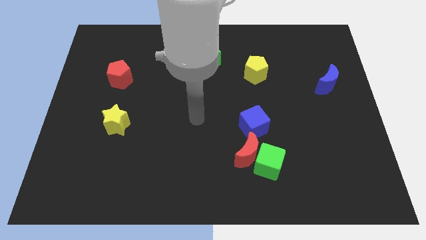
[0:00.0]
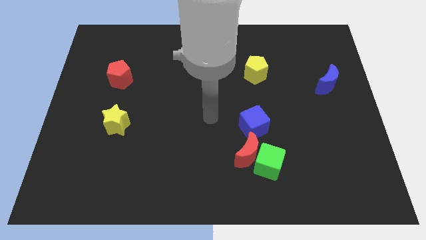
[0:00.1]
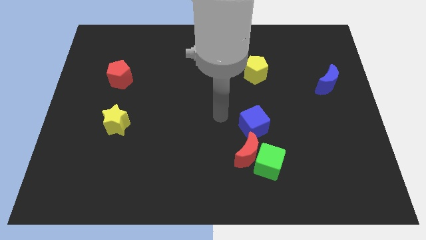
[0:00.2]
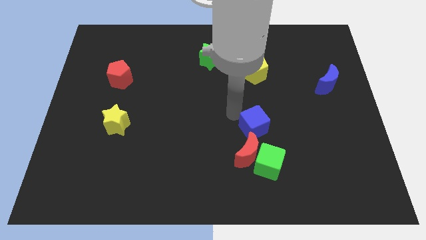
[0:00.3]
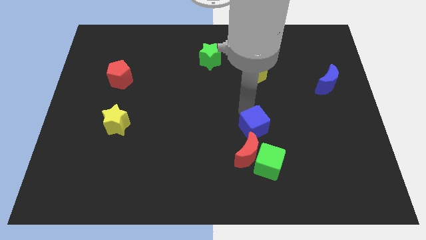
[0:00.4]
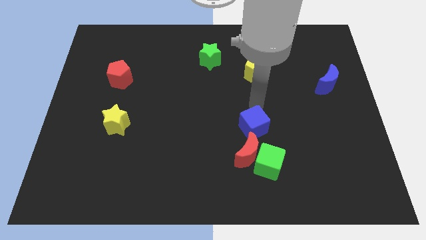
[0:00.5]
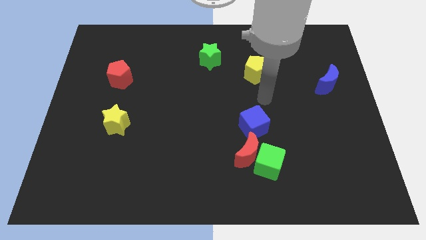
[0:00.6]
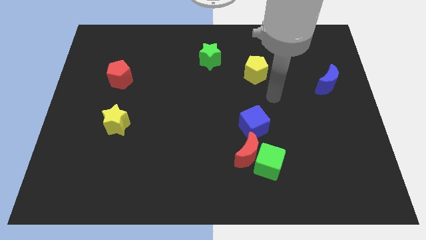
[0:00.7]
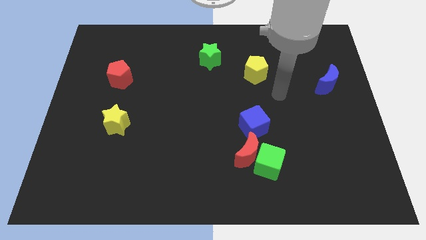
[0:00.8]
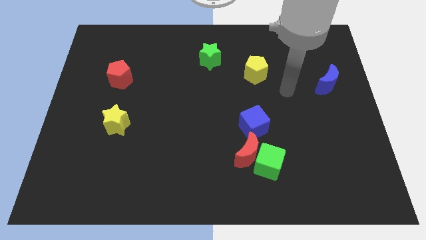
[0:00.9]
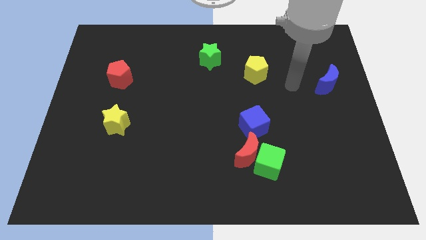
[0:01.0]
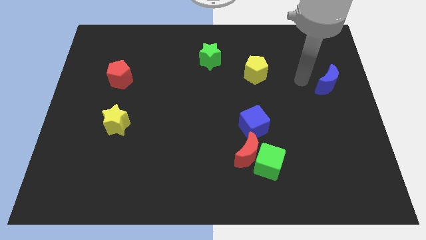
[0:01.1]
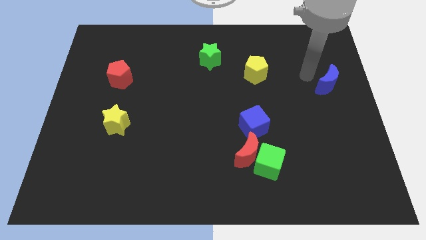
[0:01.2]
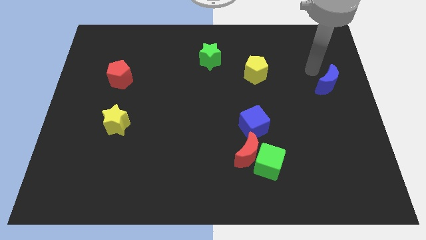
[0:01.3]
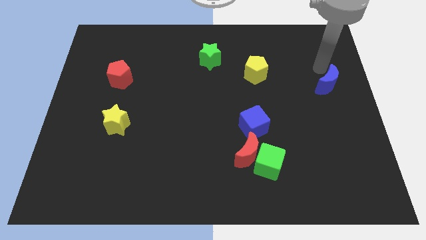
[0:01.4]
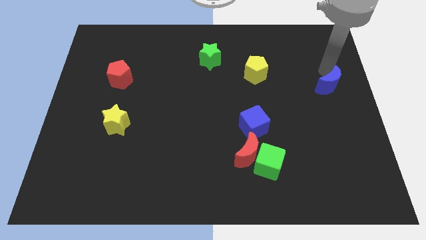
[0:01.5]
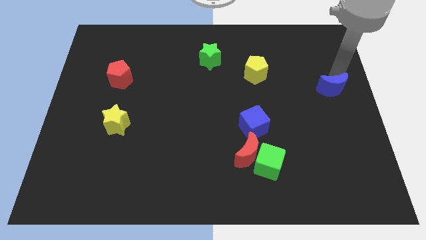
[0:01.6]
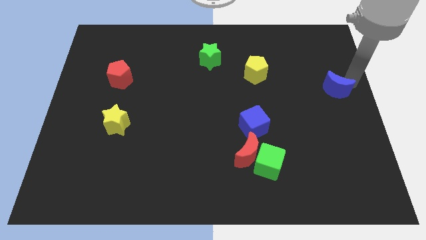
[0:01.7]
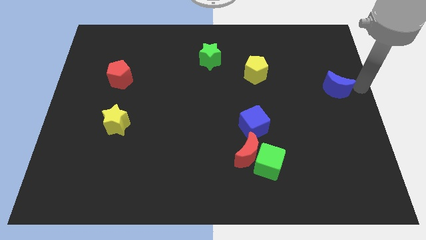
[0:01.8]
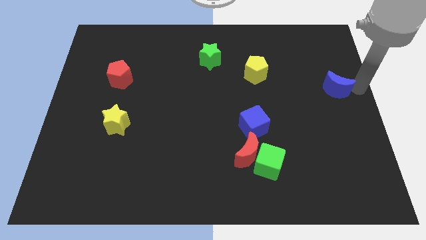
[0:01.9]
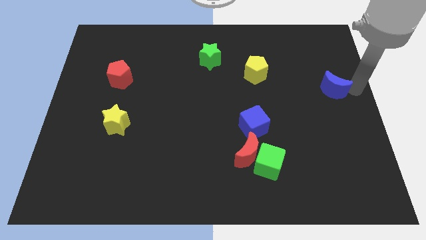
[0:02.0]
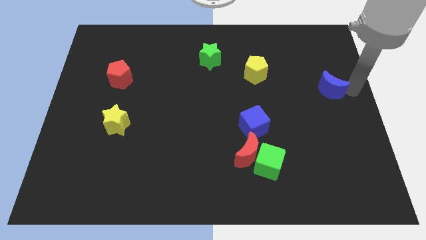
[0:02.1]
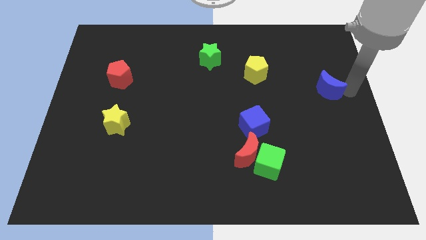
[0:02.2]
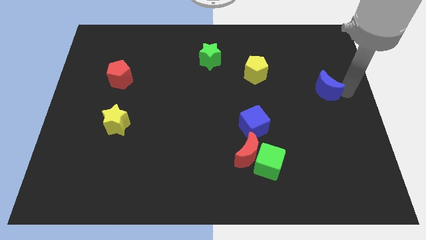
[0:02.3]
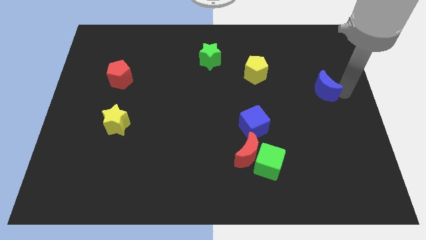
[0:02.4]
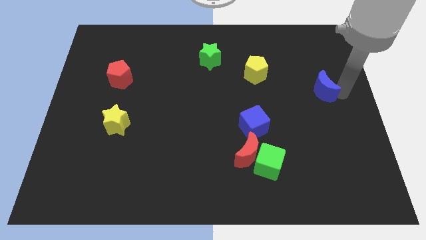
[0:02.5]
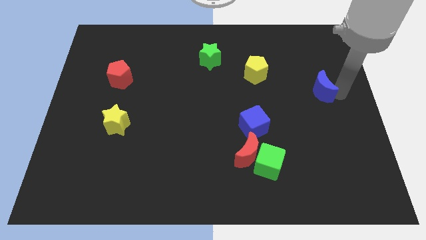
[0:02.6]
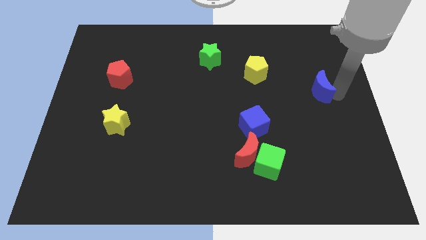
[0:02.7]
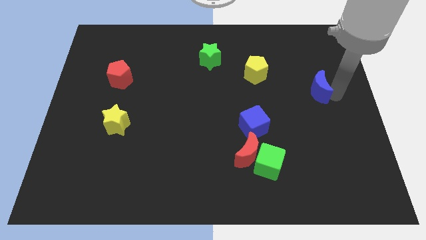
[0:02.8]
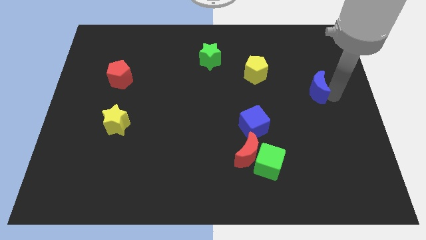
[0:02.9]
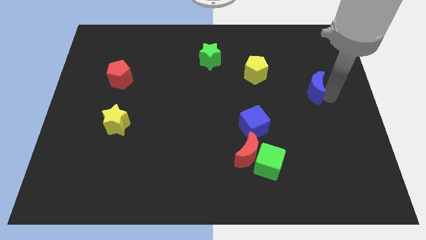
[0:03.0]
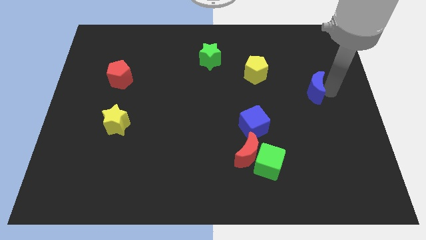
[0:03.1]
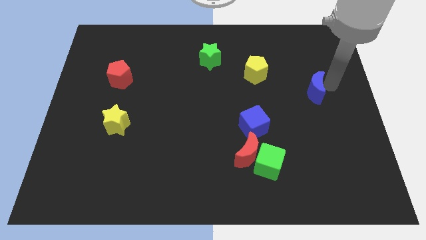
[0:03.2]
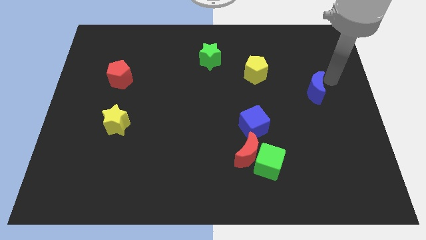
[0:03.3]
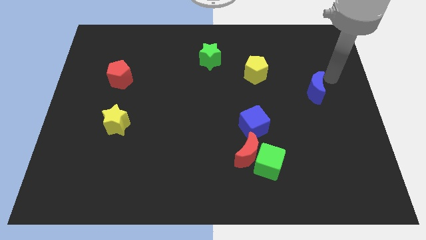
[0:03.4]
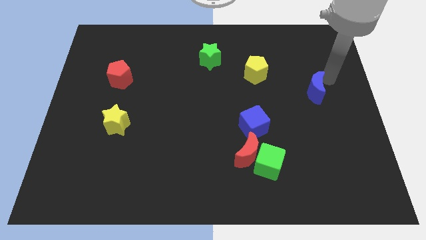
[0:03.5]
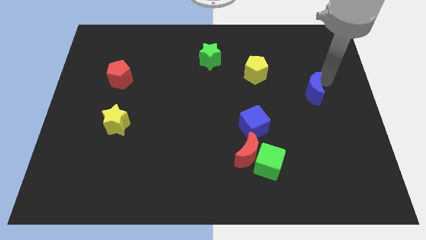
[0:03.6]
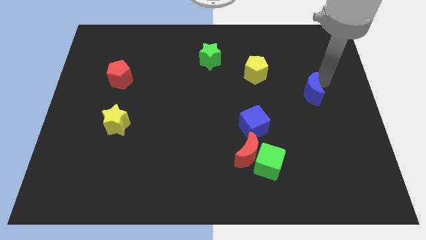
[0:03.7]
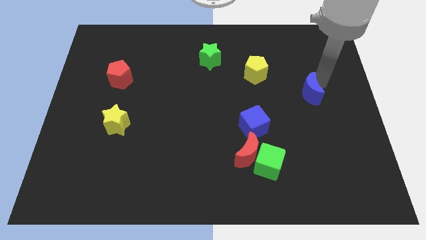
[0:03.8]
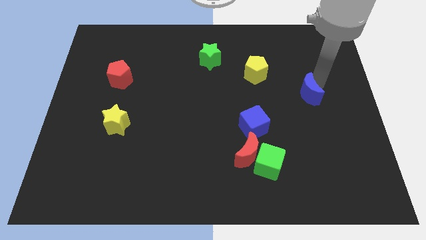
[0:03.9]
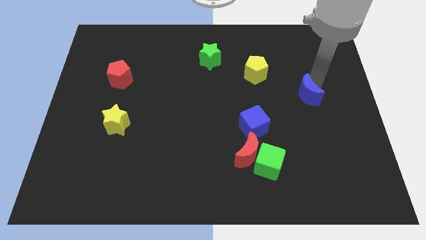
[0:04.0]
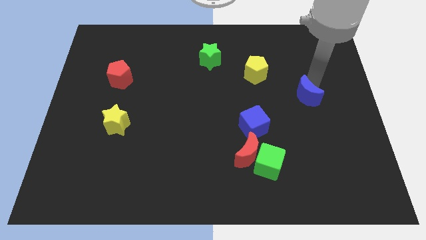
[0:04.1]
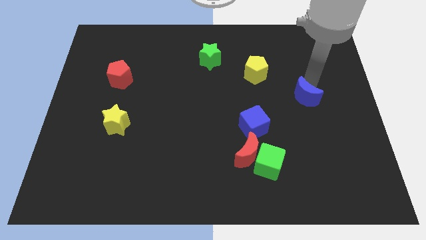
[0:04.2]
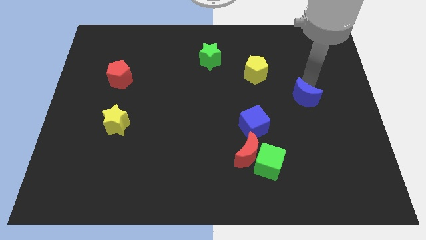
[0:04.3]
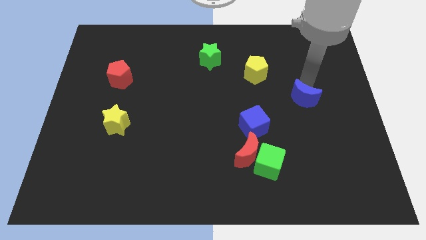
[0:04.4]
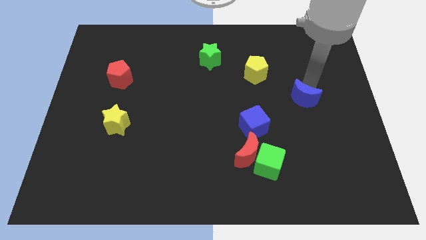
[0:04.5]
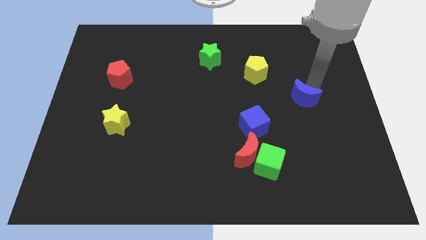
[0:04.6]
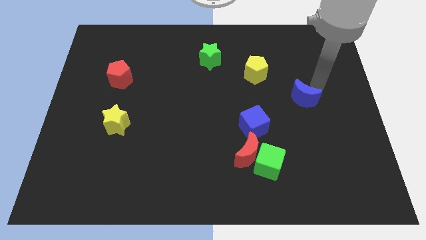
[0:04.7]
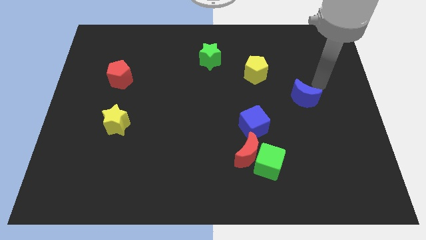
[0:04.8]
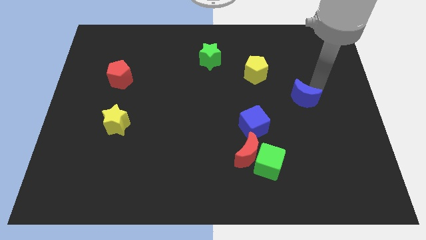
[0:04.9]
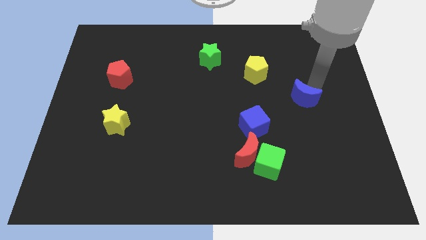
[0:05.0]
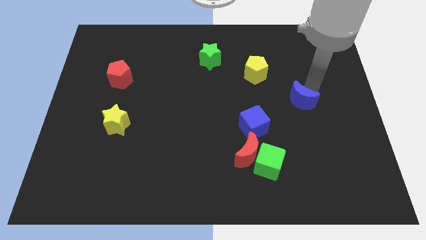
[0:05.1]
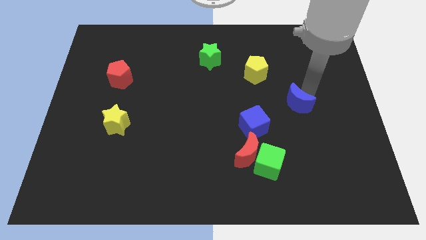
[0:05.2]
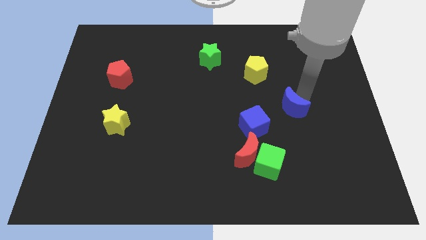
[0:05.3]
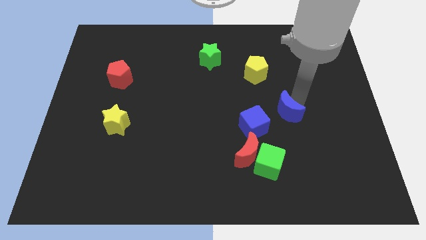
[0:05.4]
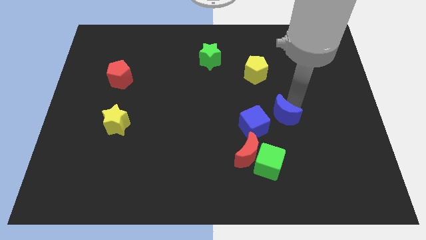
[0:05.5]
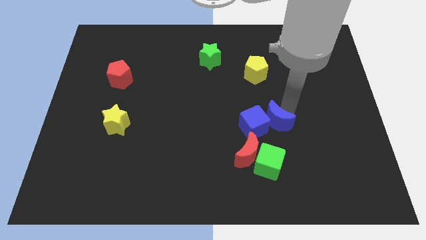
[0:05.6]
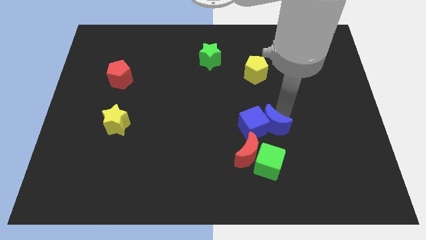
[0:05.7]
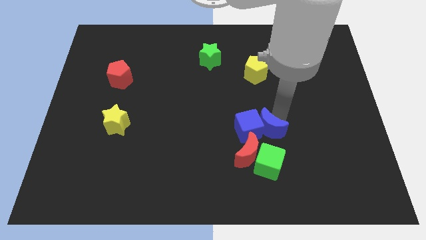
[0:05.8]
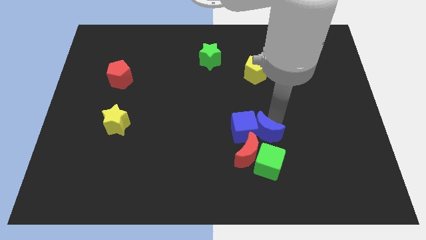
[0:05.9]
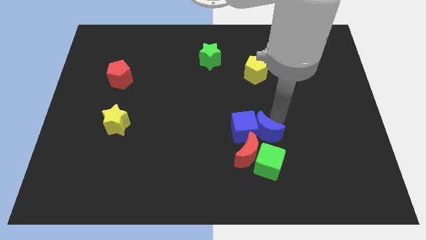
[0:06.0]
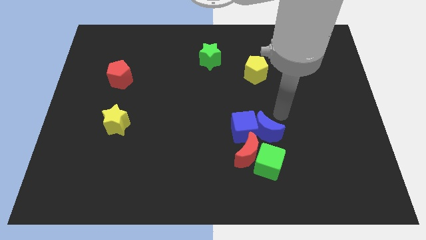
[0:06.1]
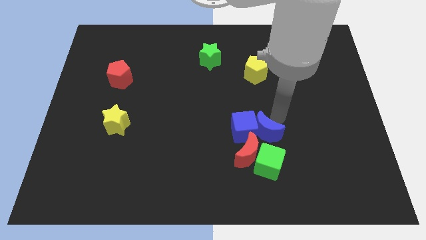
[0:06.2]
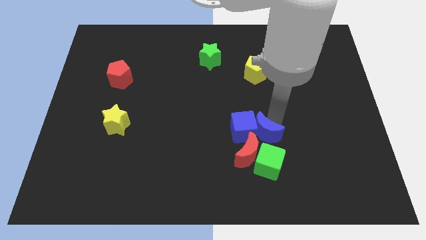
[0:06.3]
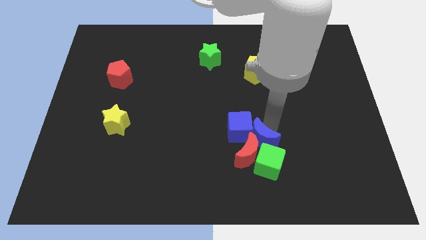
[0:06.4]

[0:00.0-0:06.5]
slide the blue moon towards the red moon

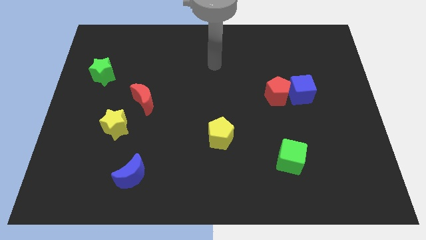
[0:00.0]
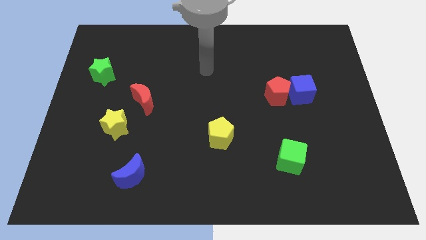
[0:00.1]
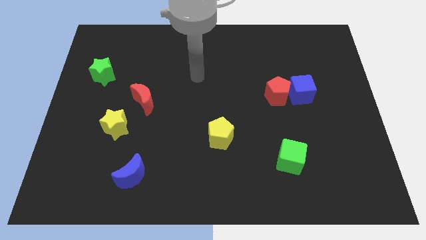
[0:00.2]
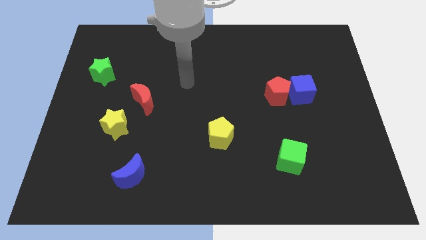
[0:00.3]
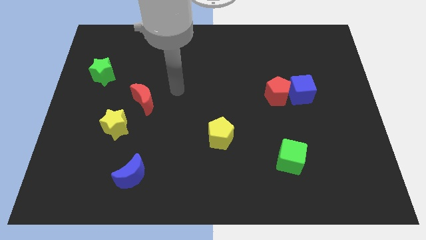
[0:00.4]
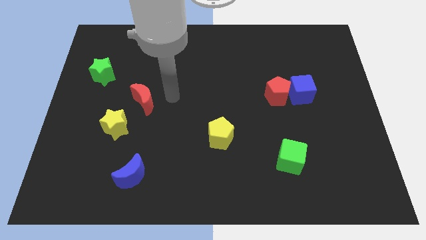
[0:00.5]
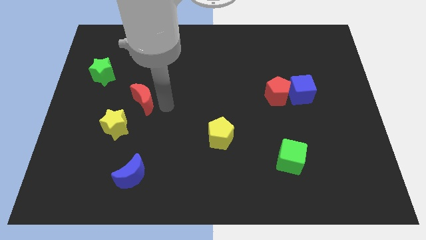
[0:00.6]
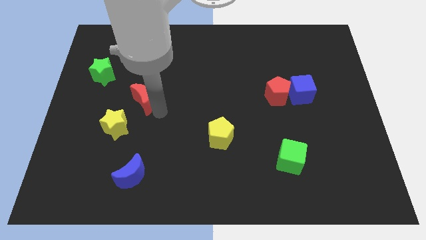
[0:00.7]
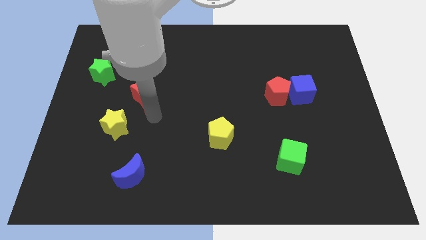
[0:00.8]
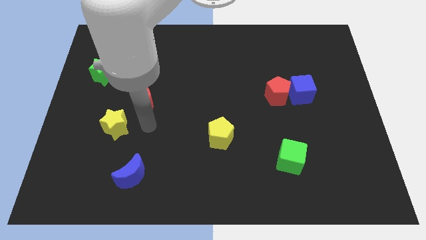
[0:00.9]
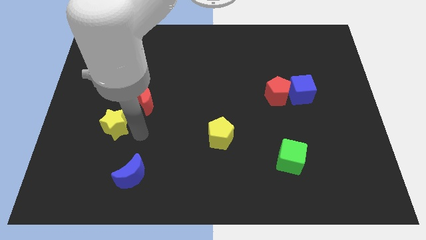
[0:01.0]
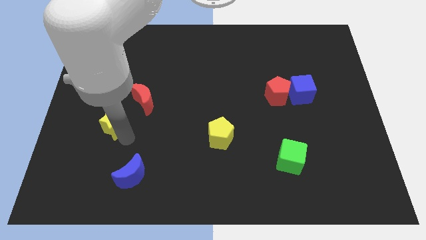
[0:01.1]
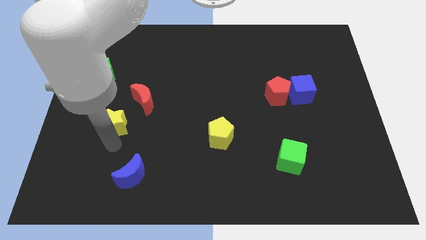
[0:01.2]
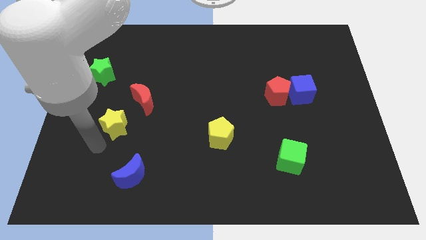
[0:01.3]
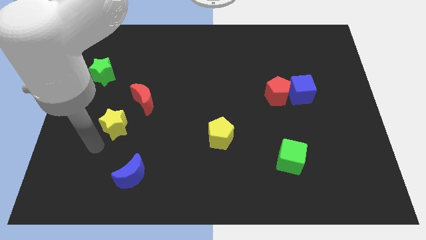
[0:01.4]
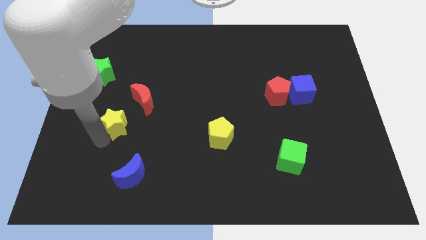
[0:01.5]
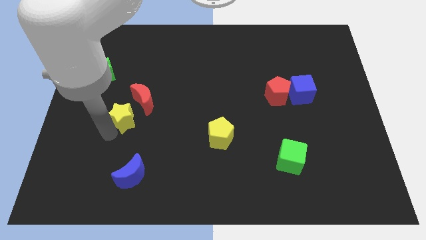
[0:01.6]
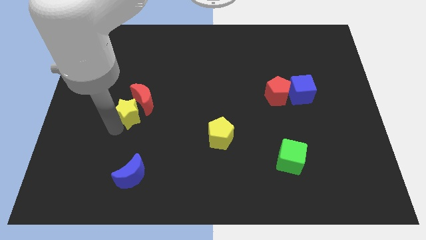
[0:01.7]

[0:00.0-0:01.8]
move the yellow star close to the red moon
